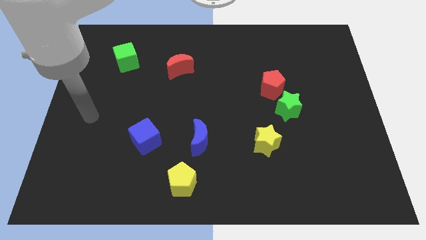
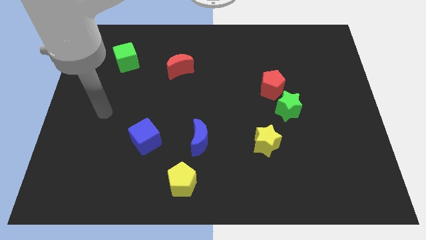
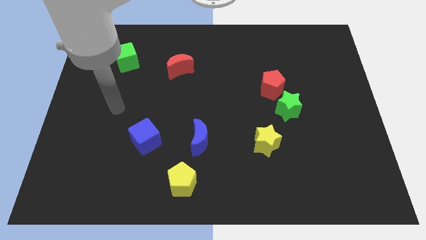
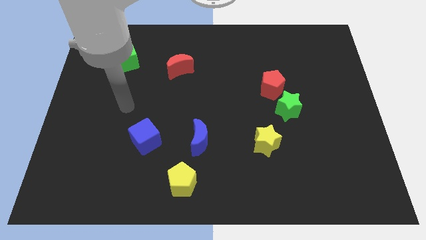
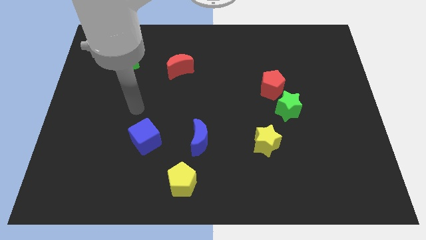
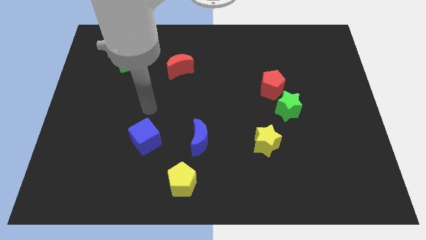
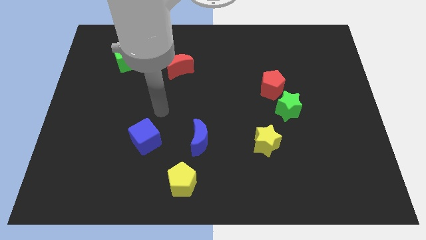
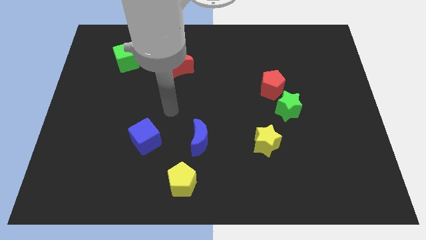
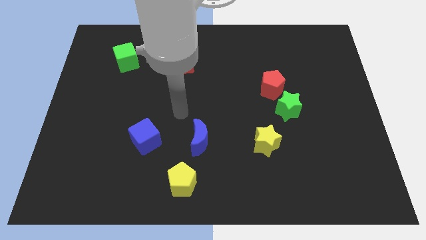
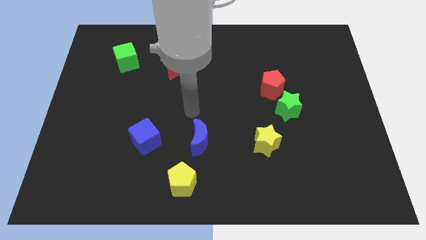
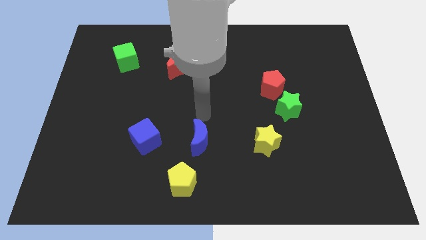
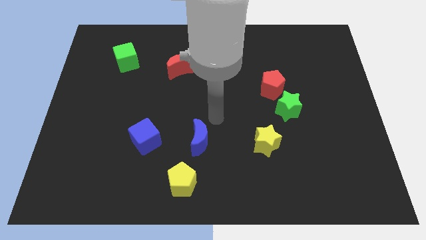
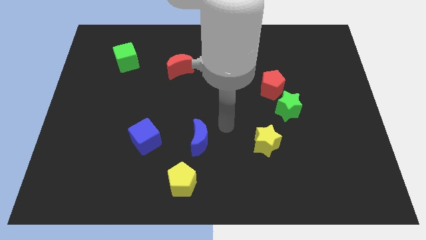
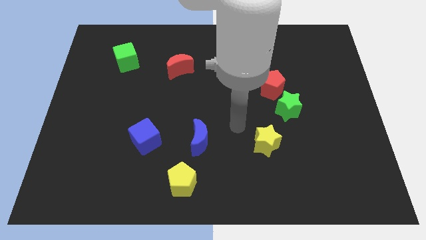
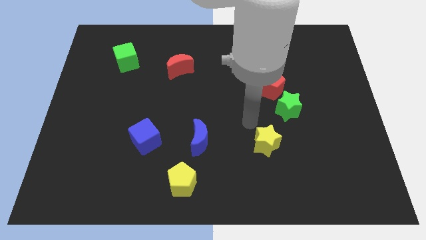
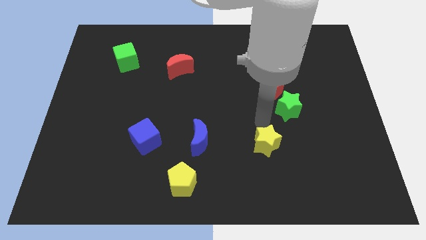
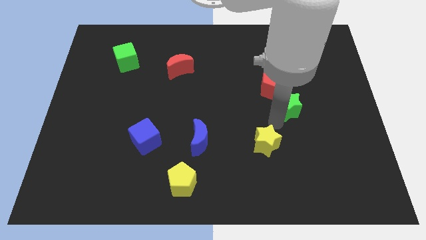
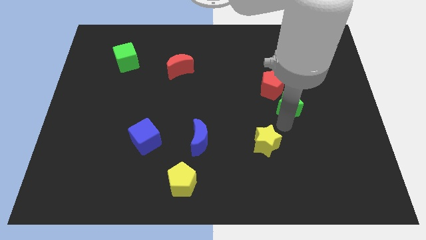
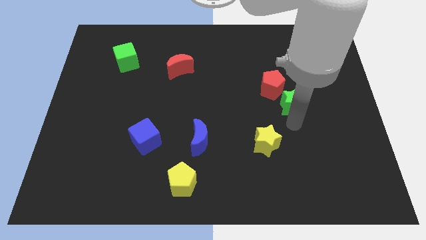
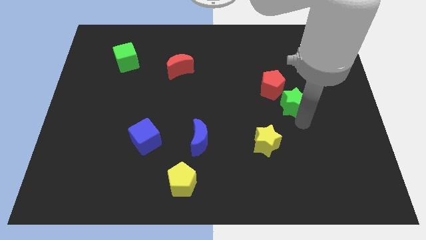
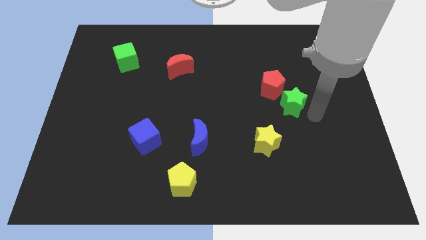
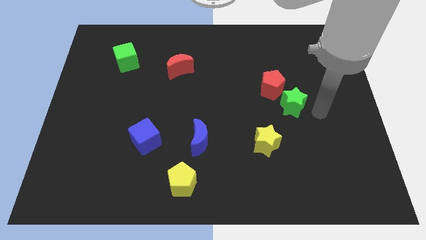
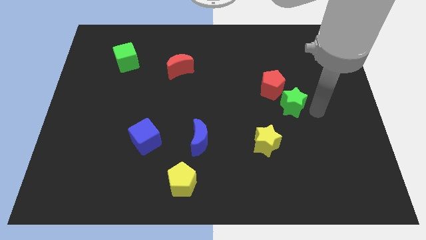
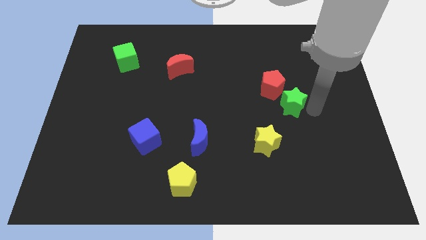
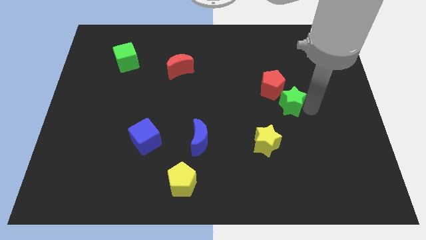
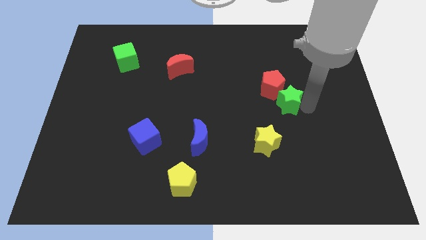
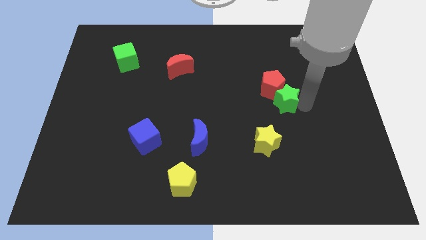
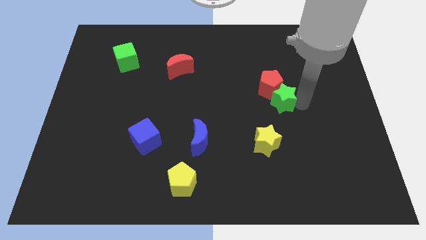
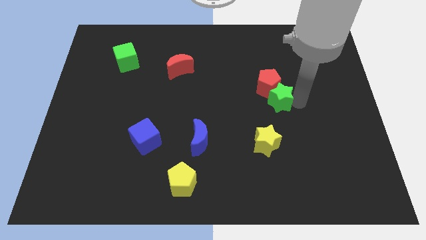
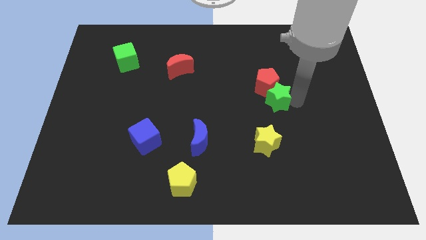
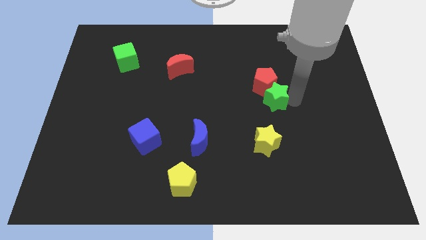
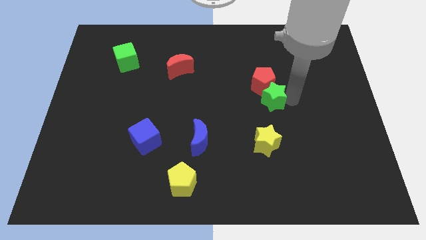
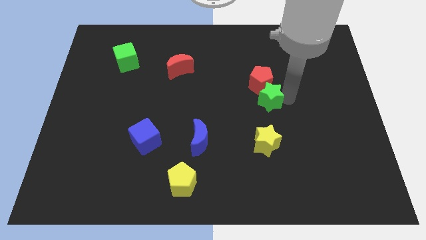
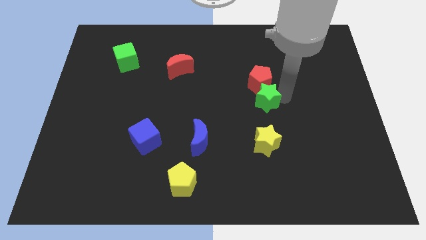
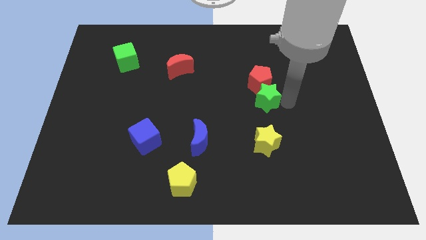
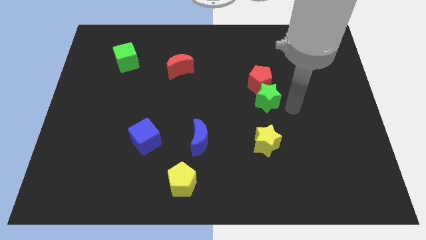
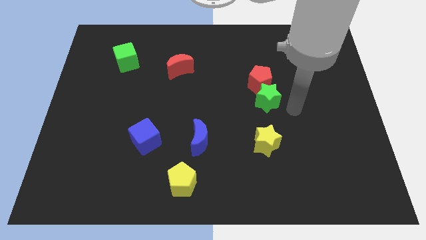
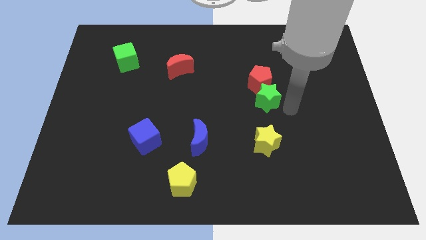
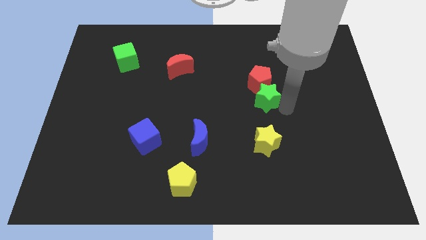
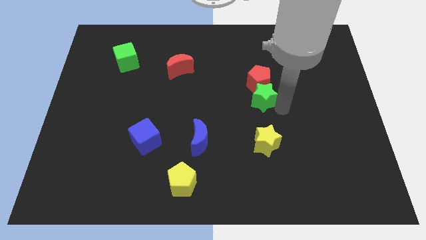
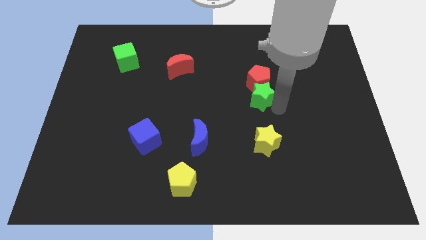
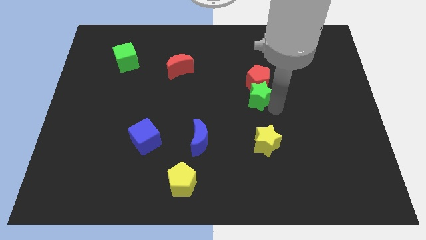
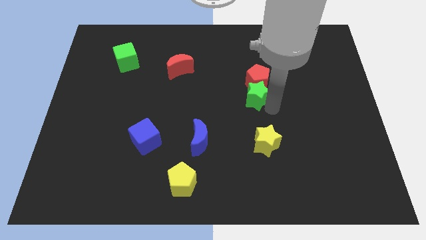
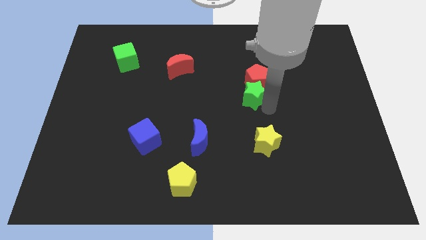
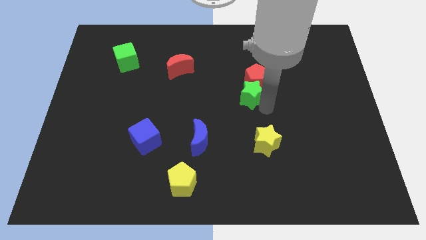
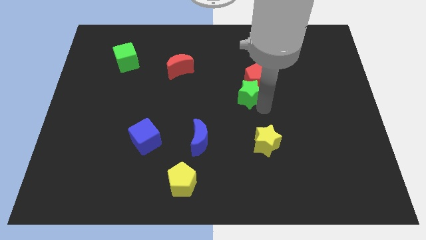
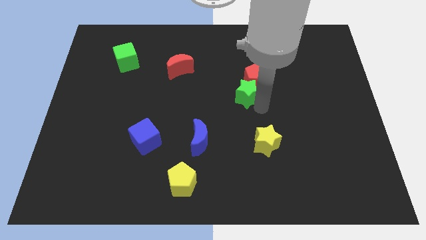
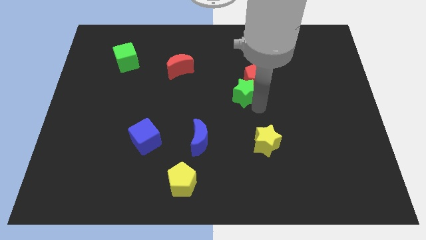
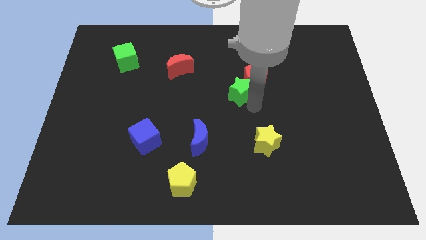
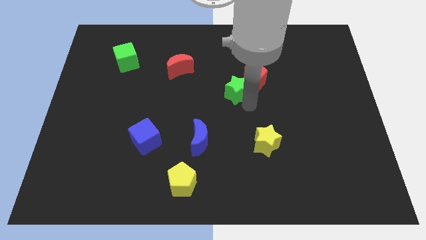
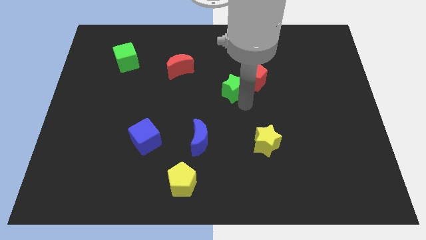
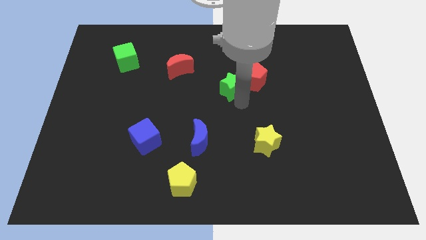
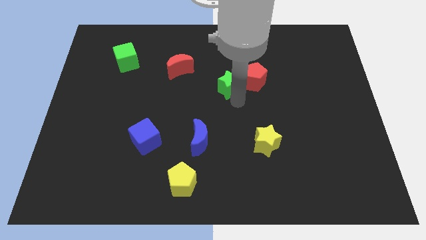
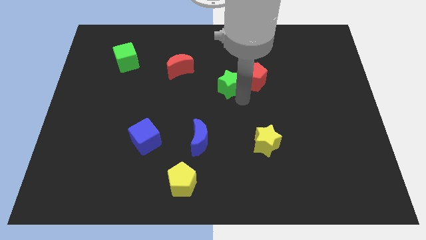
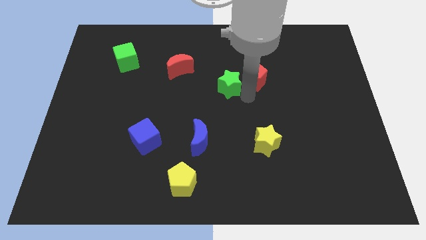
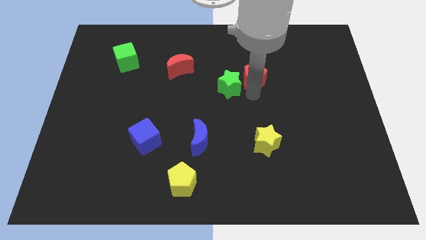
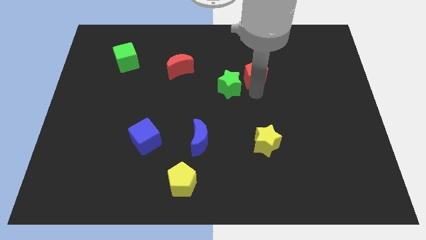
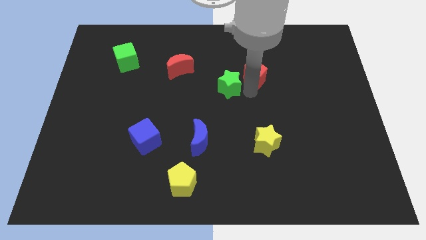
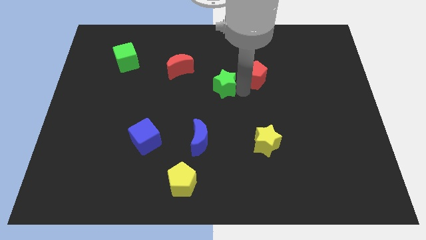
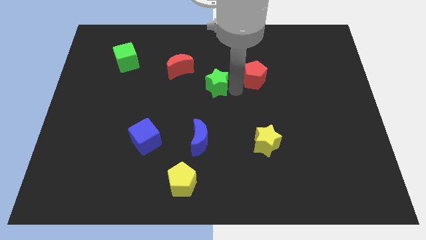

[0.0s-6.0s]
push the green star to the bottom right side of the red moon

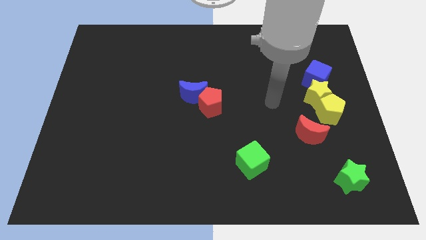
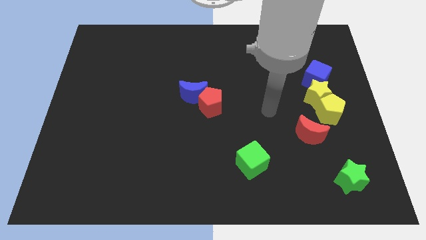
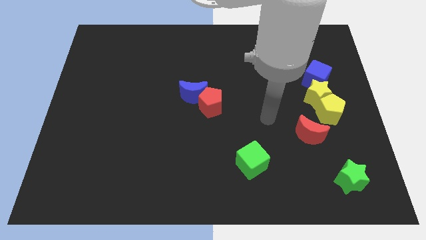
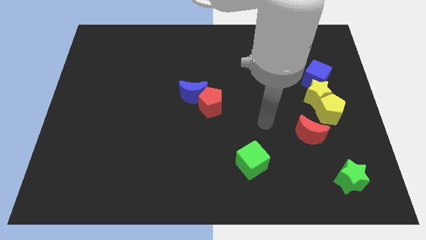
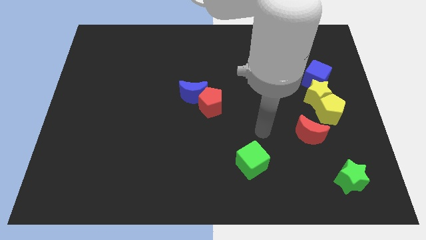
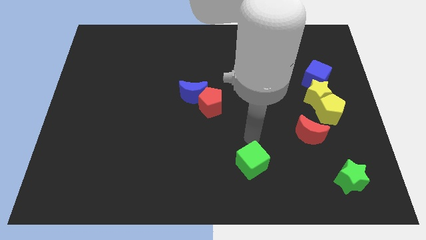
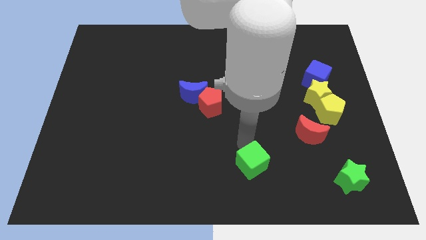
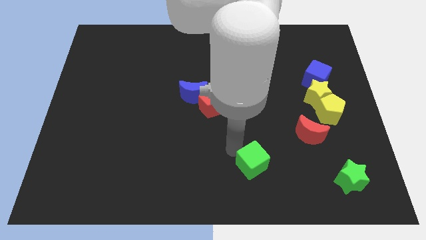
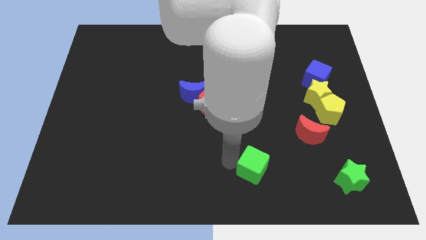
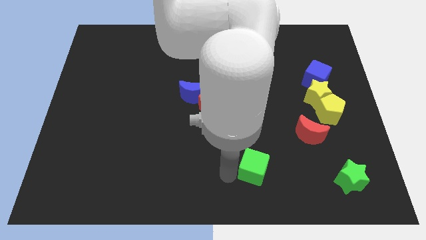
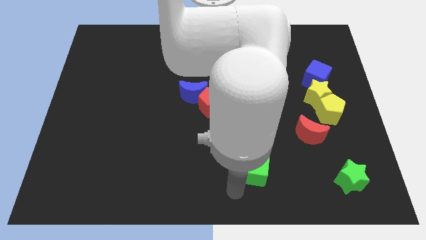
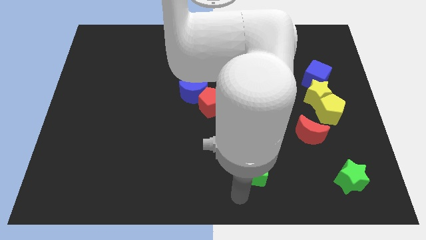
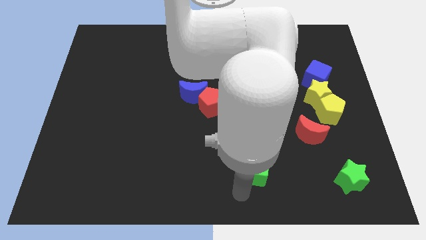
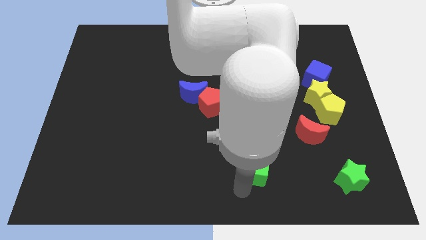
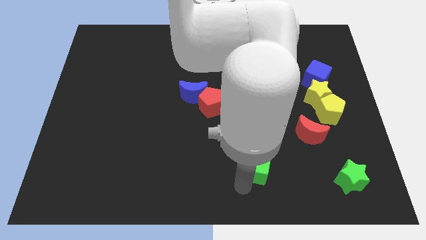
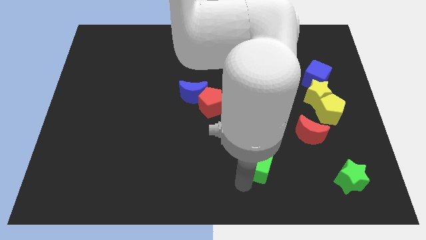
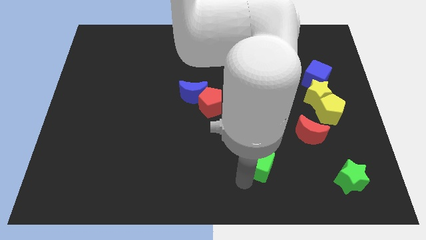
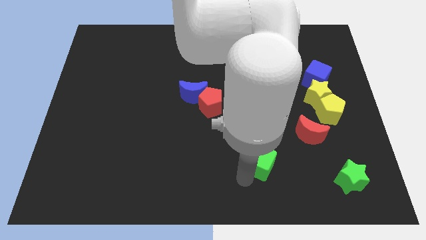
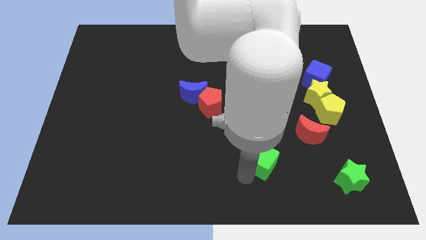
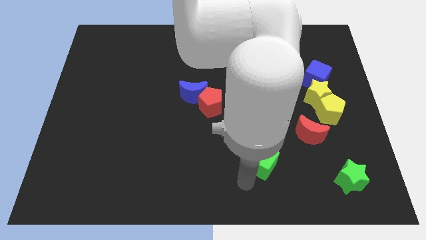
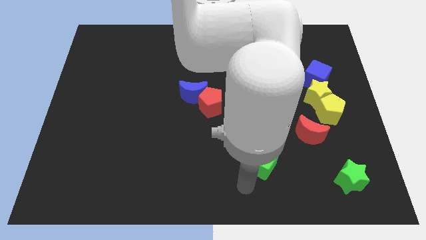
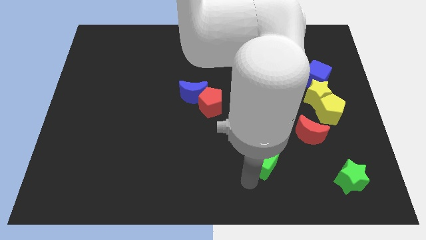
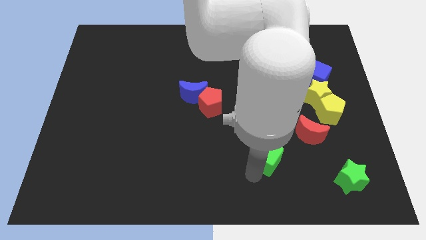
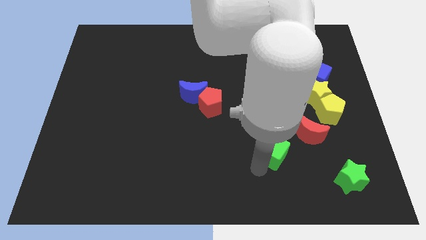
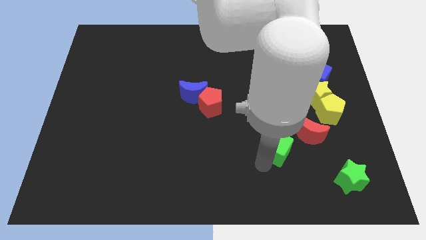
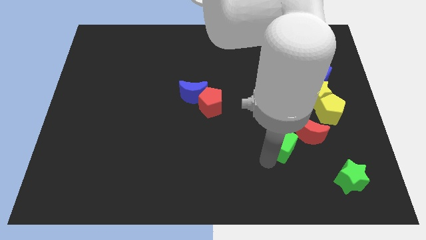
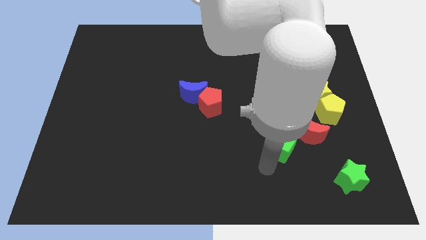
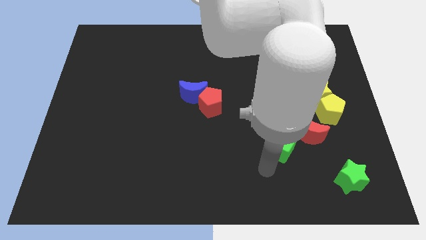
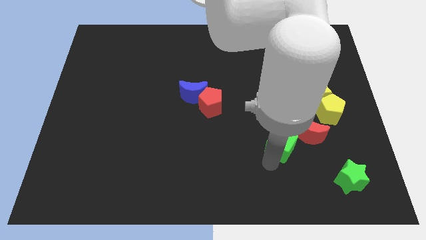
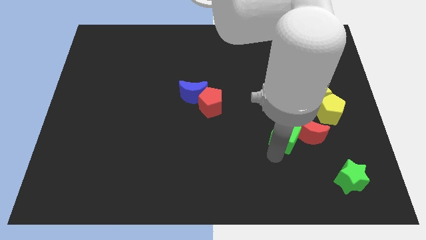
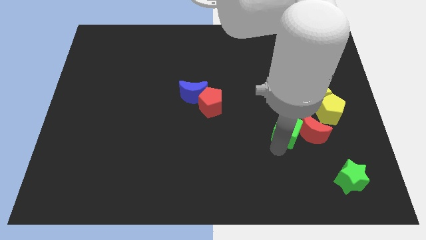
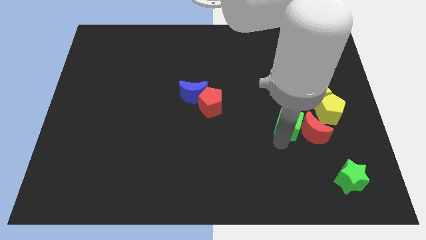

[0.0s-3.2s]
push the green cube to the bottom left side of the yellow star
